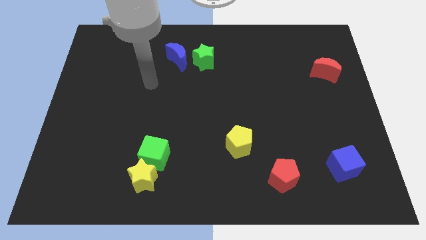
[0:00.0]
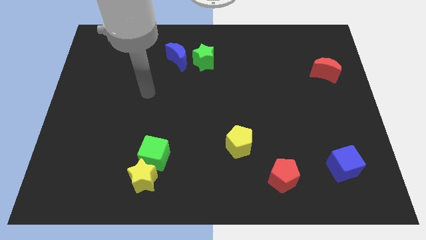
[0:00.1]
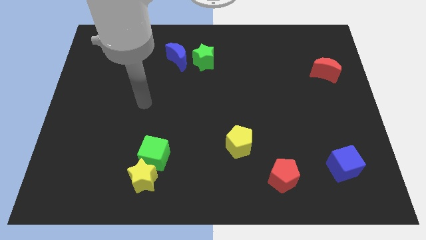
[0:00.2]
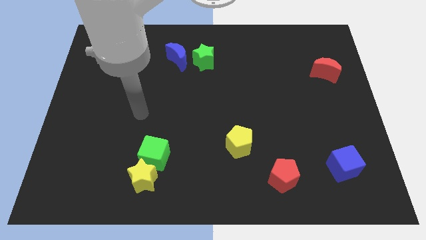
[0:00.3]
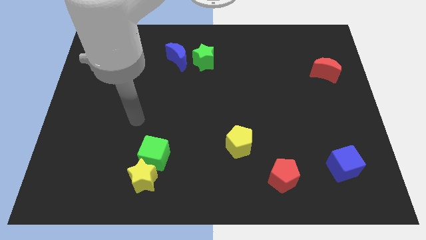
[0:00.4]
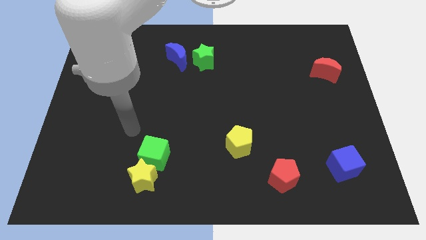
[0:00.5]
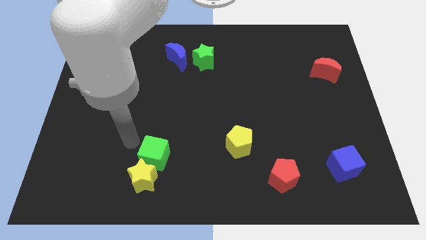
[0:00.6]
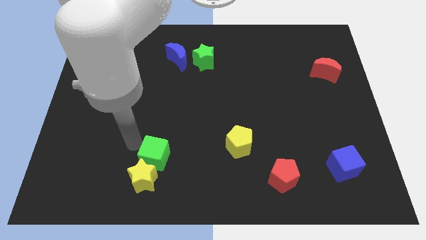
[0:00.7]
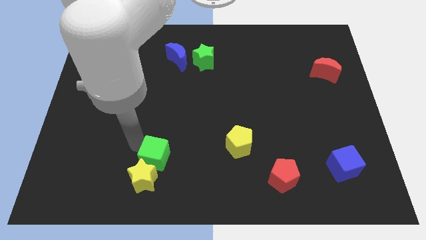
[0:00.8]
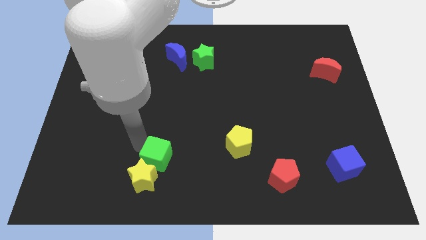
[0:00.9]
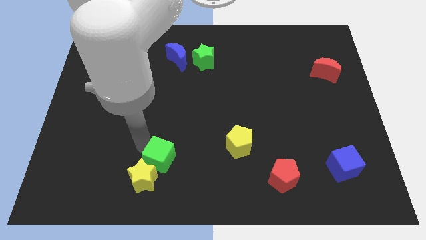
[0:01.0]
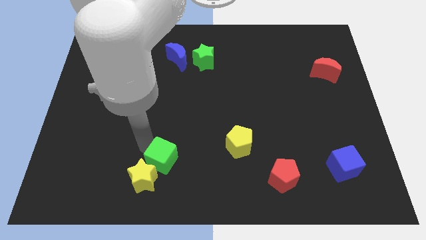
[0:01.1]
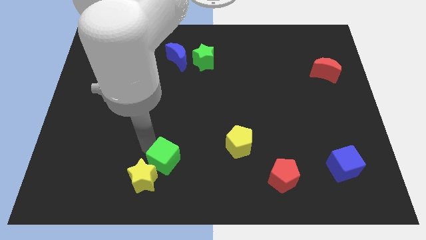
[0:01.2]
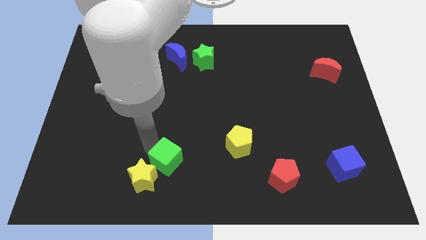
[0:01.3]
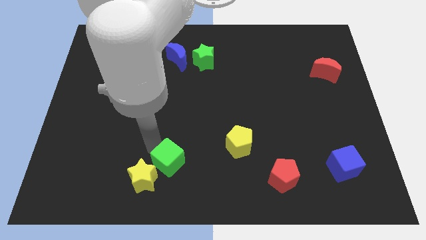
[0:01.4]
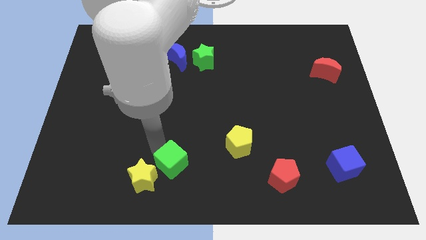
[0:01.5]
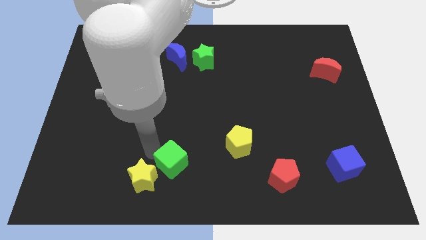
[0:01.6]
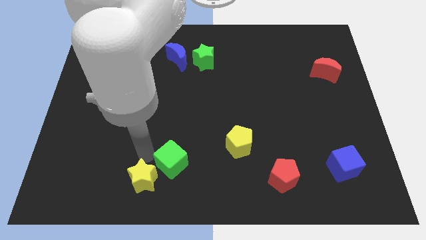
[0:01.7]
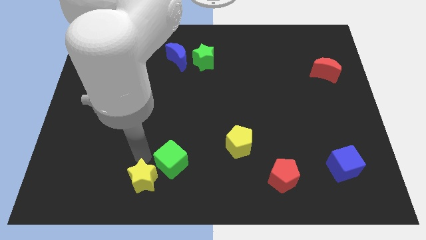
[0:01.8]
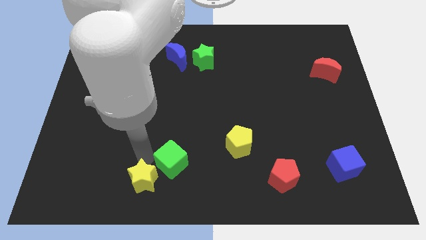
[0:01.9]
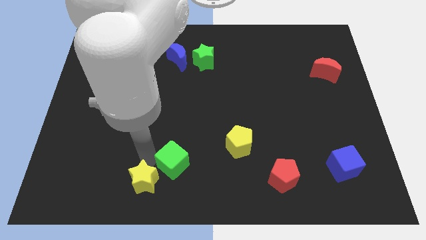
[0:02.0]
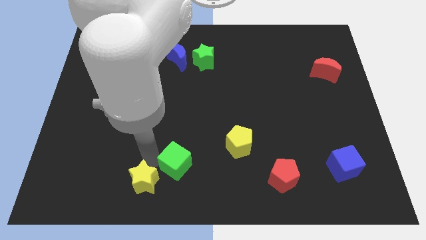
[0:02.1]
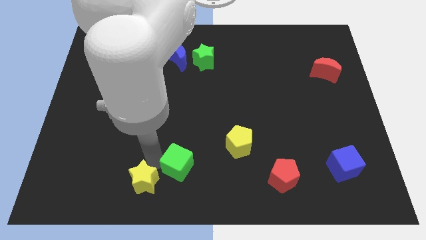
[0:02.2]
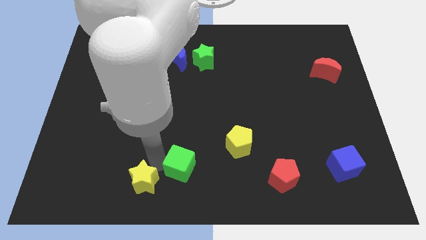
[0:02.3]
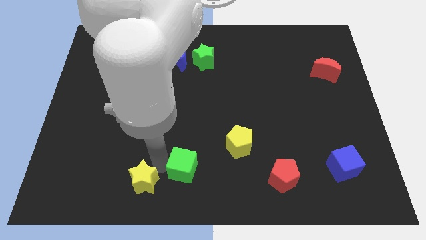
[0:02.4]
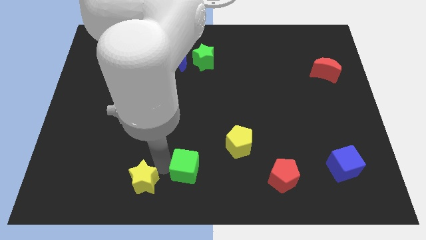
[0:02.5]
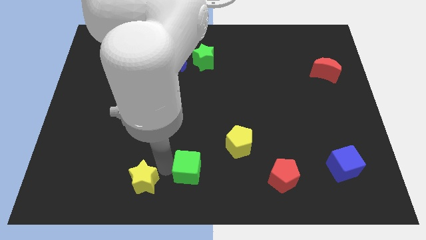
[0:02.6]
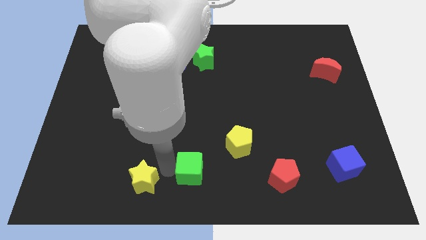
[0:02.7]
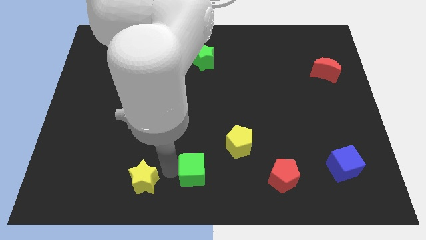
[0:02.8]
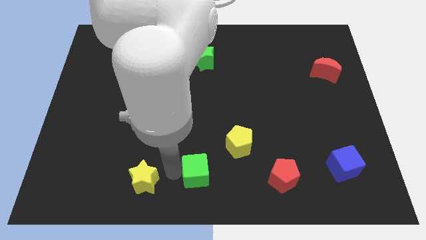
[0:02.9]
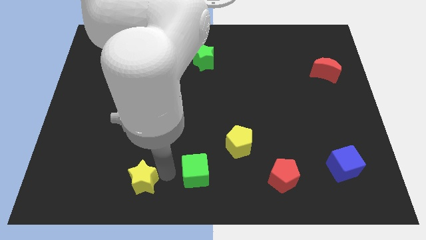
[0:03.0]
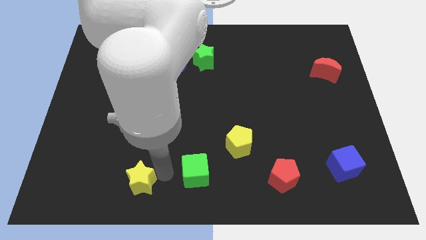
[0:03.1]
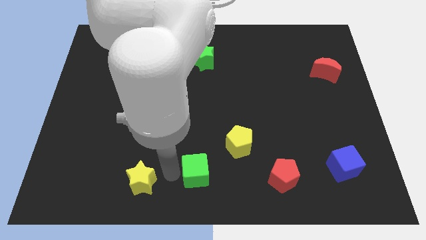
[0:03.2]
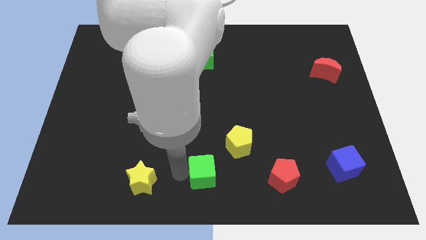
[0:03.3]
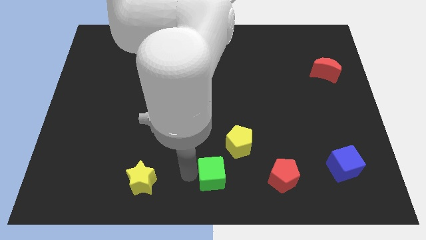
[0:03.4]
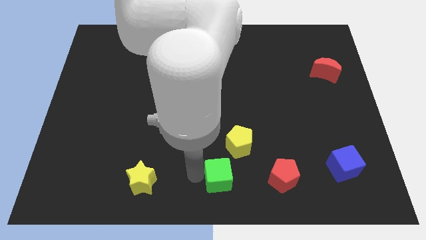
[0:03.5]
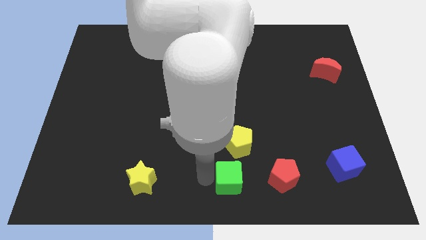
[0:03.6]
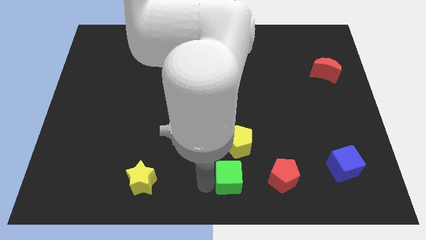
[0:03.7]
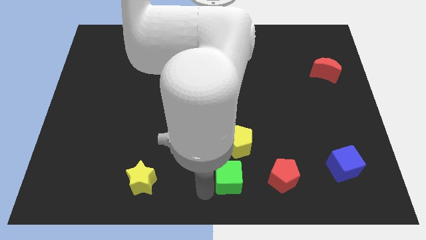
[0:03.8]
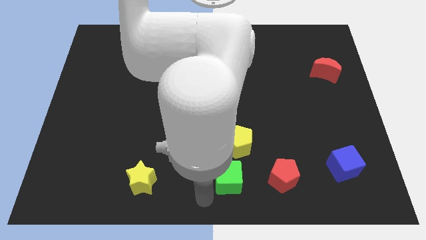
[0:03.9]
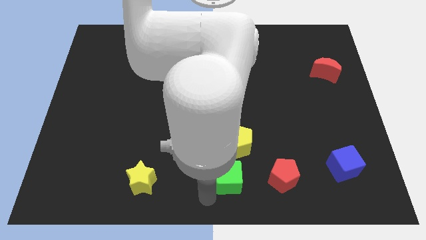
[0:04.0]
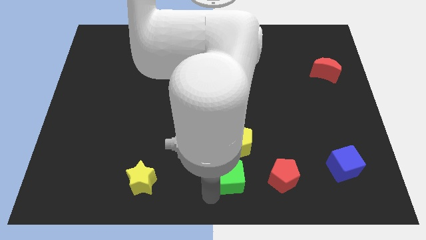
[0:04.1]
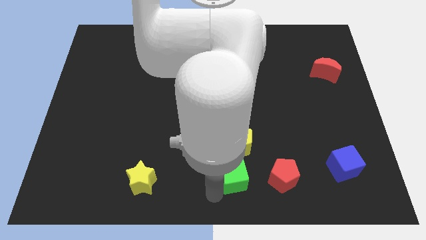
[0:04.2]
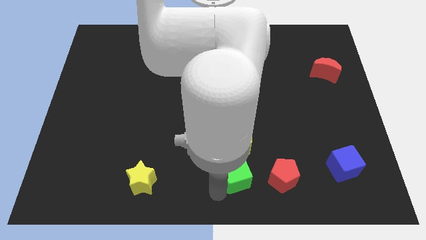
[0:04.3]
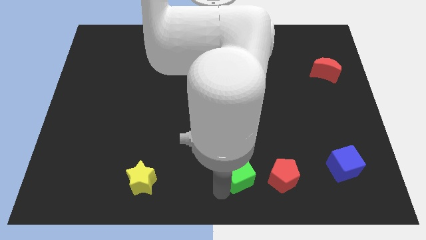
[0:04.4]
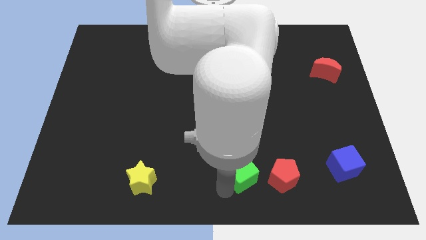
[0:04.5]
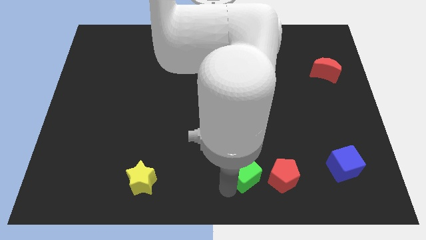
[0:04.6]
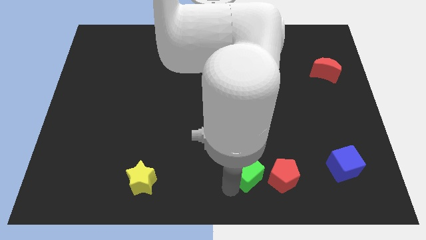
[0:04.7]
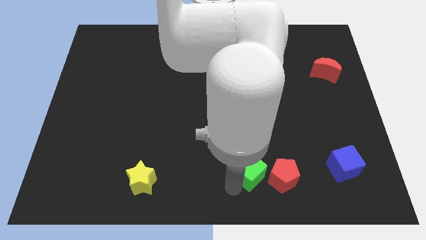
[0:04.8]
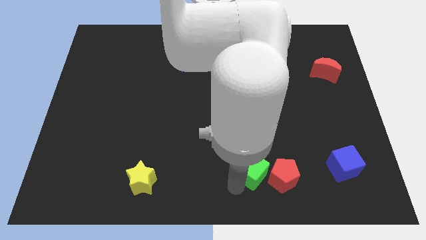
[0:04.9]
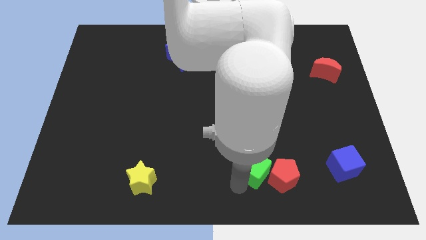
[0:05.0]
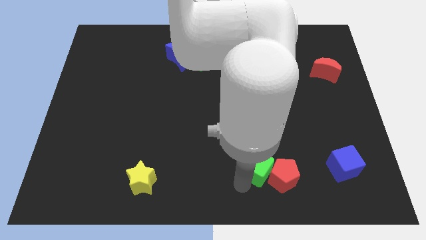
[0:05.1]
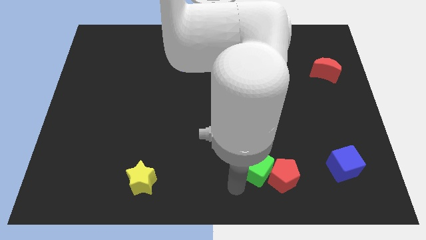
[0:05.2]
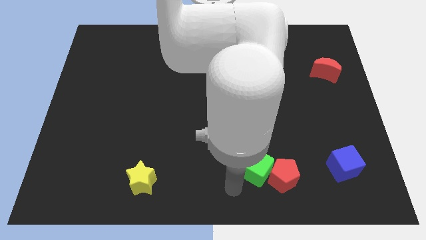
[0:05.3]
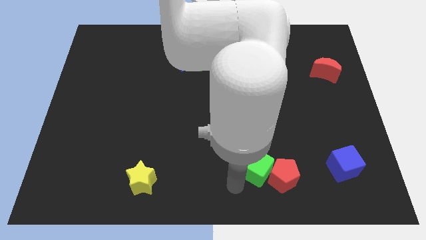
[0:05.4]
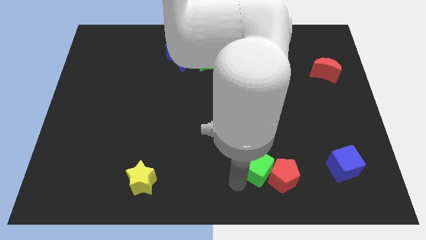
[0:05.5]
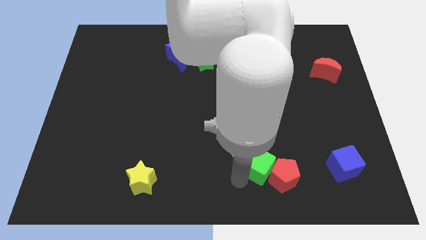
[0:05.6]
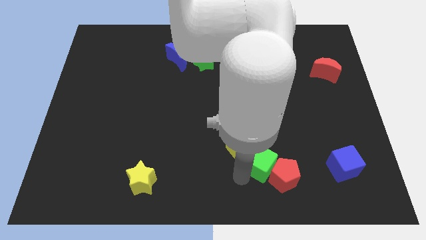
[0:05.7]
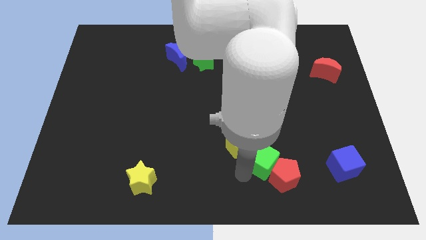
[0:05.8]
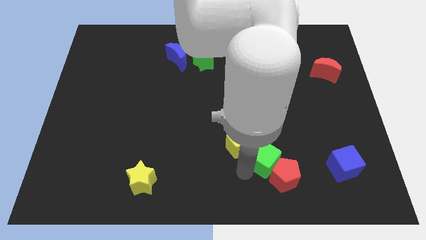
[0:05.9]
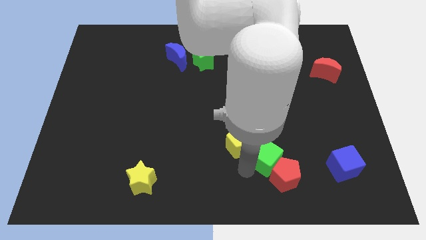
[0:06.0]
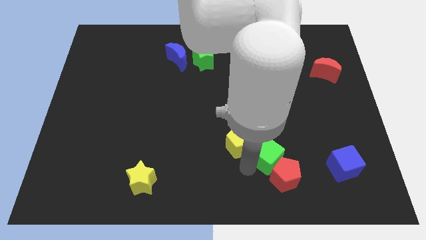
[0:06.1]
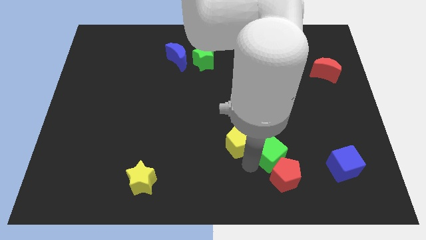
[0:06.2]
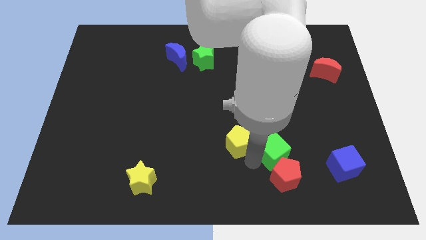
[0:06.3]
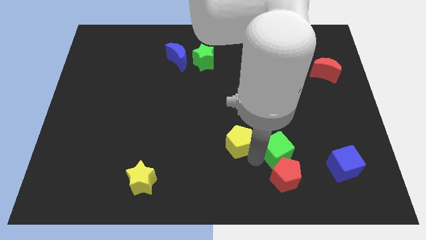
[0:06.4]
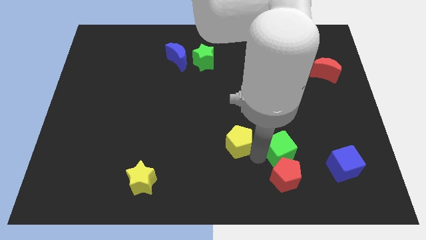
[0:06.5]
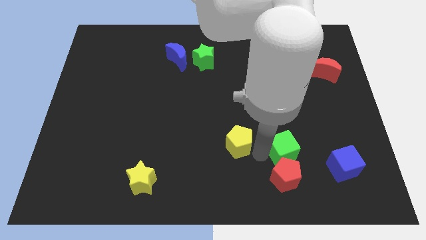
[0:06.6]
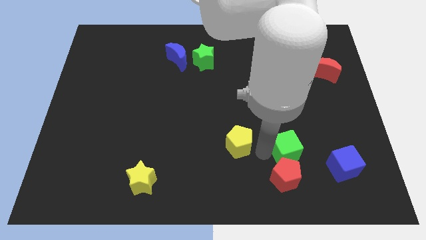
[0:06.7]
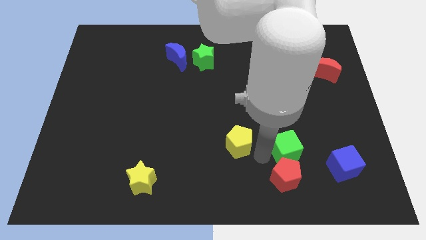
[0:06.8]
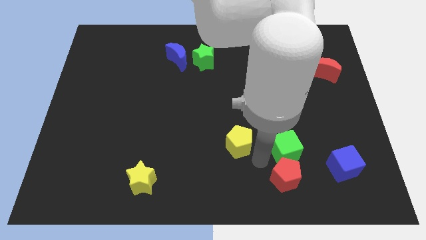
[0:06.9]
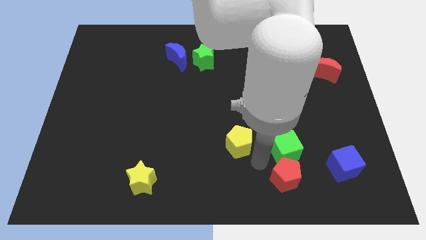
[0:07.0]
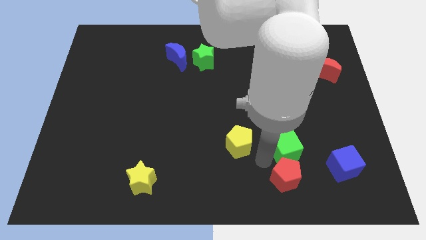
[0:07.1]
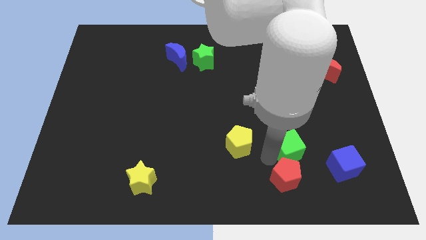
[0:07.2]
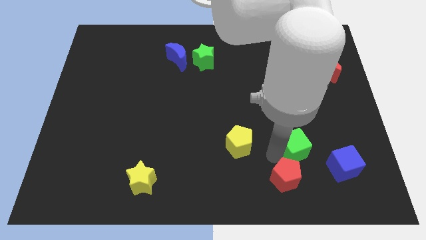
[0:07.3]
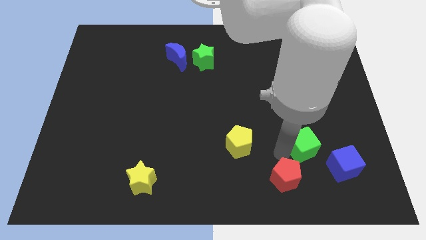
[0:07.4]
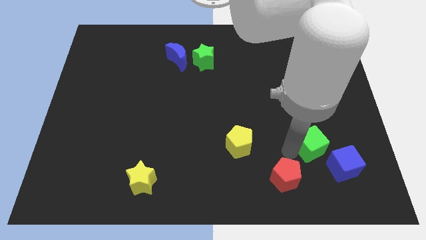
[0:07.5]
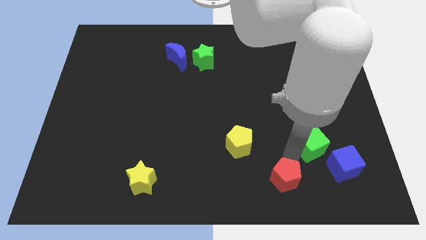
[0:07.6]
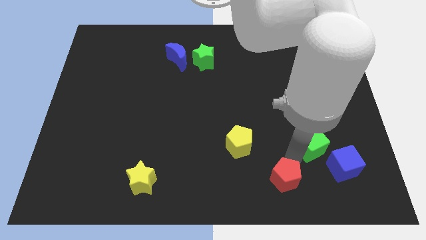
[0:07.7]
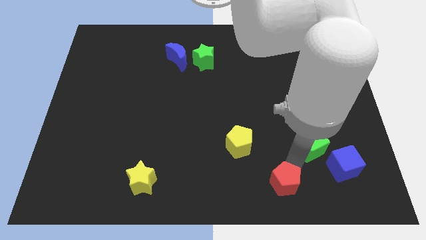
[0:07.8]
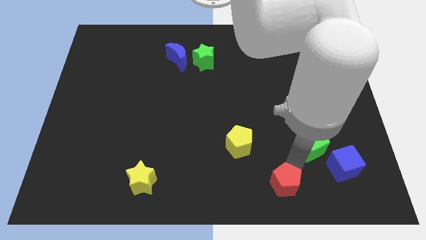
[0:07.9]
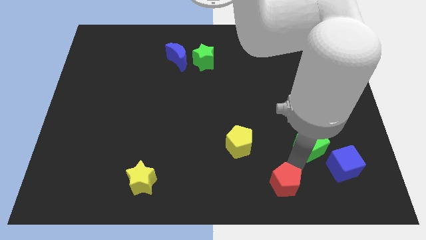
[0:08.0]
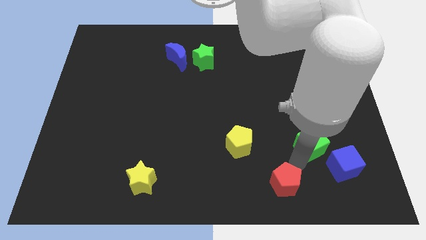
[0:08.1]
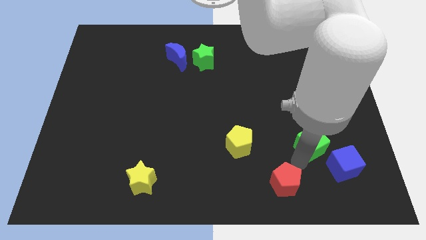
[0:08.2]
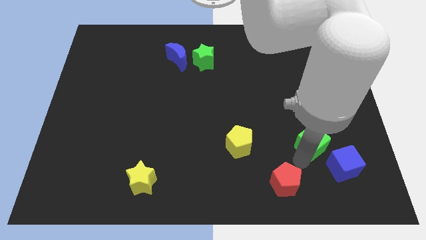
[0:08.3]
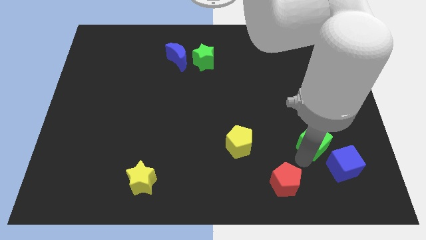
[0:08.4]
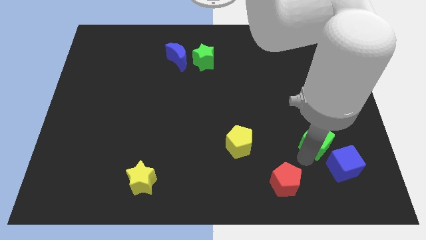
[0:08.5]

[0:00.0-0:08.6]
put the green cube to the top of the blue cube
